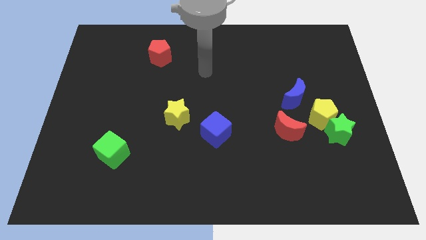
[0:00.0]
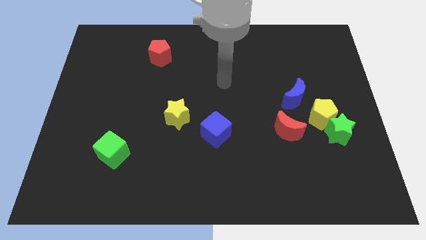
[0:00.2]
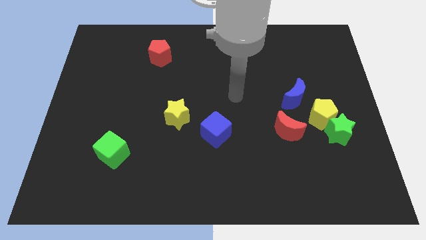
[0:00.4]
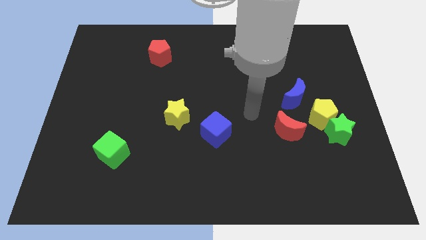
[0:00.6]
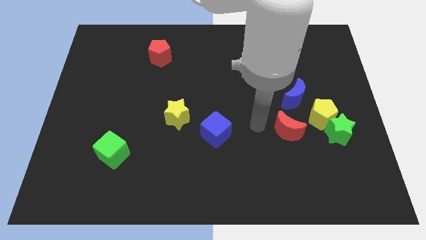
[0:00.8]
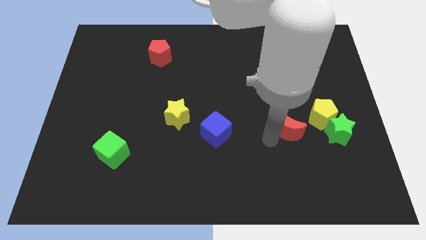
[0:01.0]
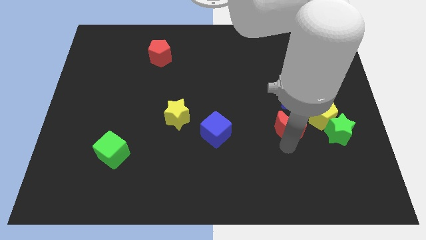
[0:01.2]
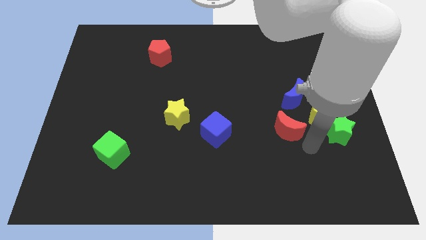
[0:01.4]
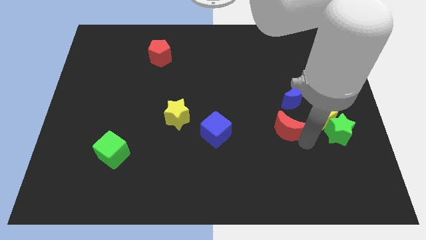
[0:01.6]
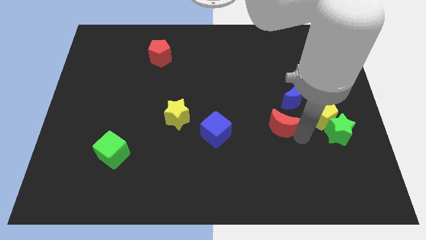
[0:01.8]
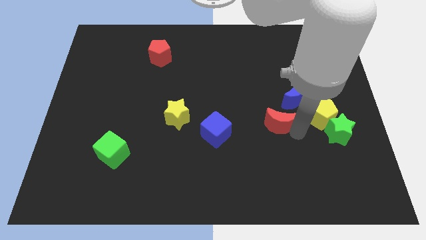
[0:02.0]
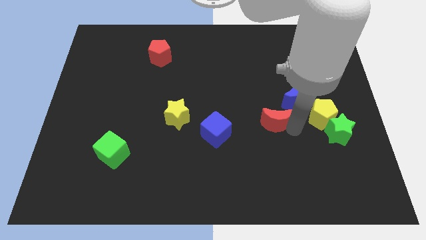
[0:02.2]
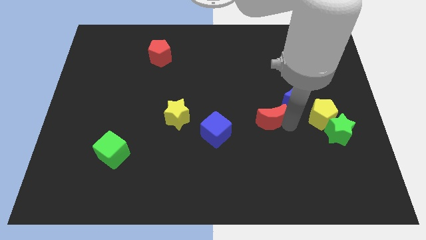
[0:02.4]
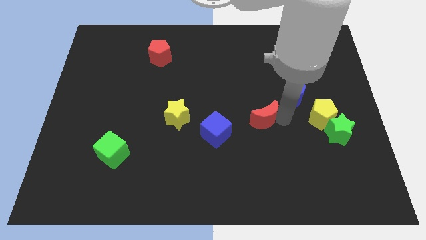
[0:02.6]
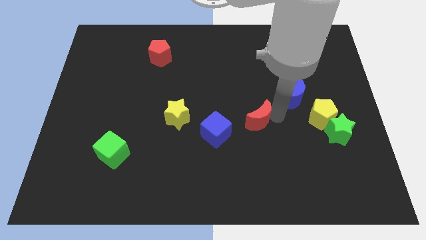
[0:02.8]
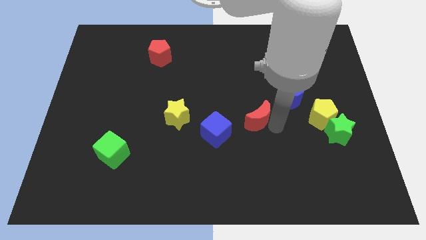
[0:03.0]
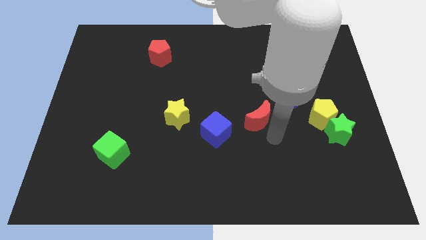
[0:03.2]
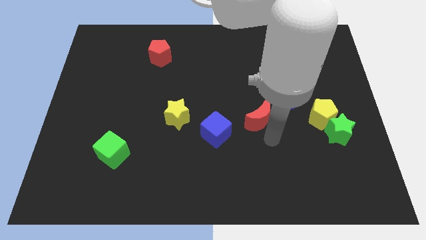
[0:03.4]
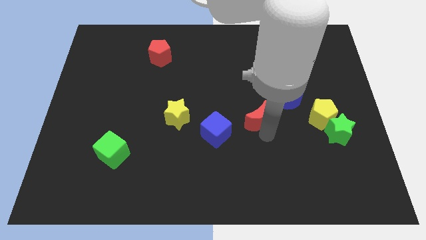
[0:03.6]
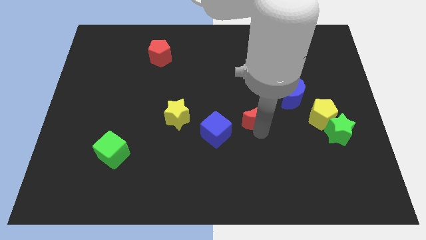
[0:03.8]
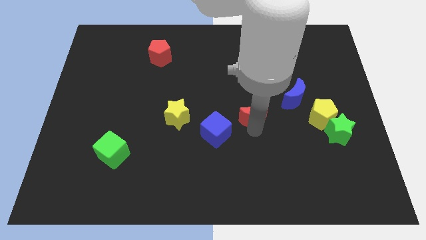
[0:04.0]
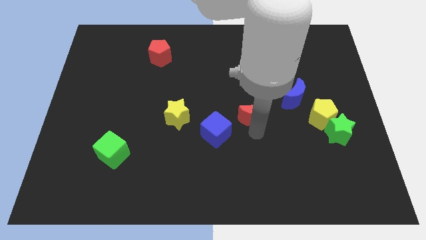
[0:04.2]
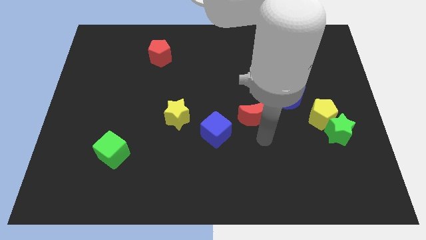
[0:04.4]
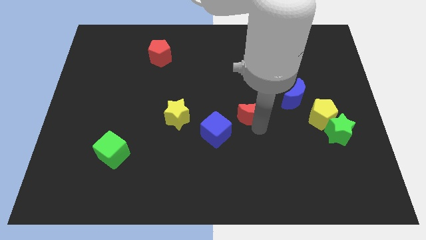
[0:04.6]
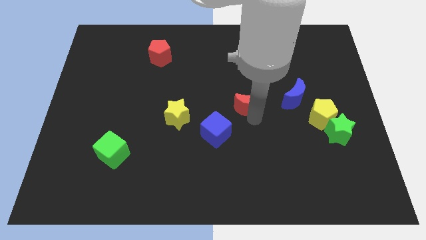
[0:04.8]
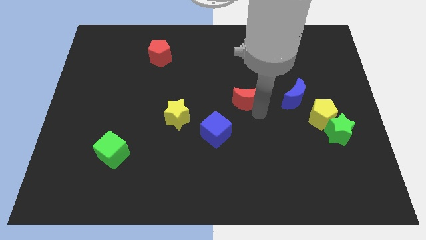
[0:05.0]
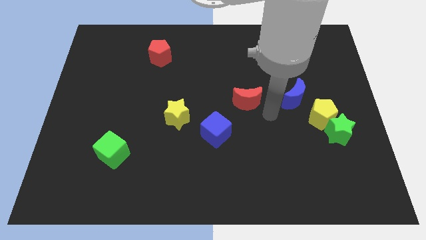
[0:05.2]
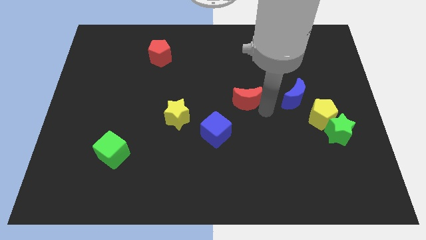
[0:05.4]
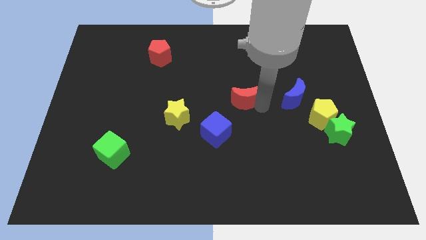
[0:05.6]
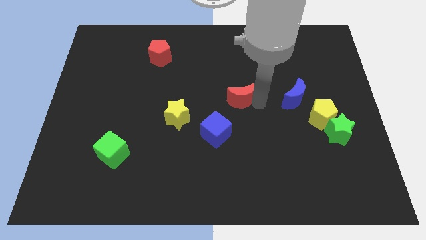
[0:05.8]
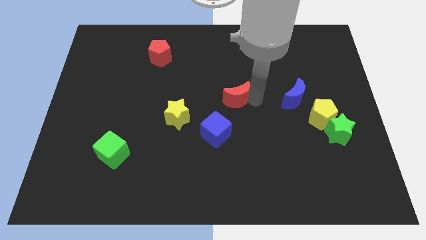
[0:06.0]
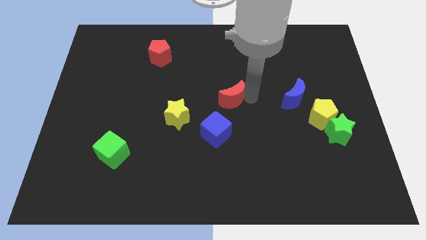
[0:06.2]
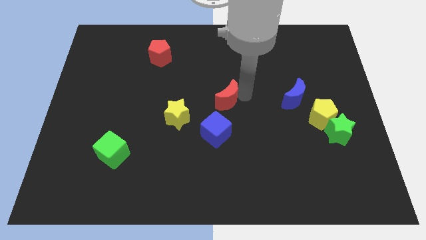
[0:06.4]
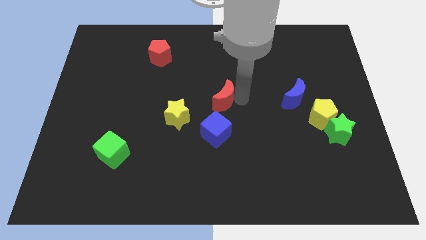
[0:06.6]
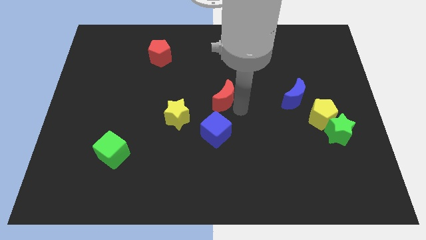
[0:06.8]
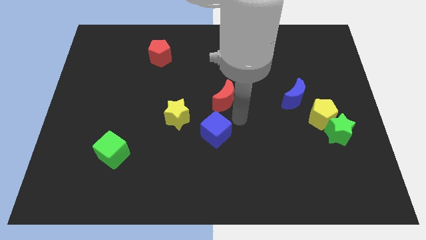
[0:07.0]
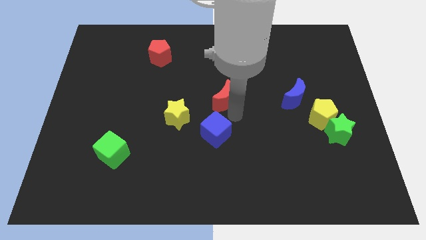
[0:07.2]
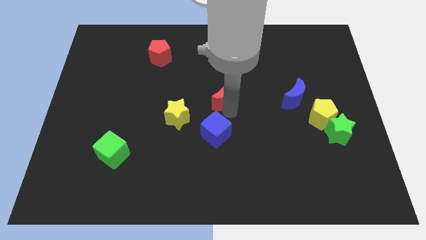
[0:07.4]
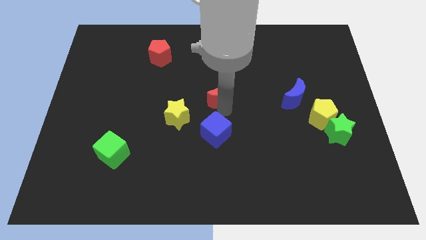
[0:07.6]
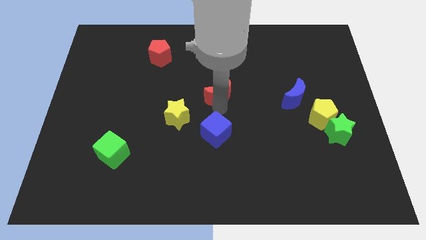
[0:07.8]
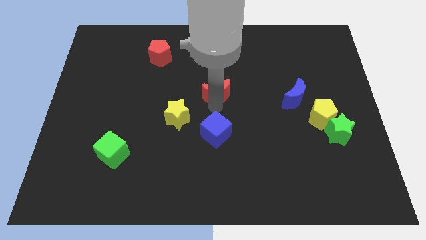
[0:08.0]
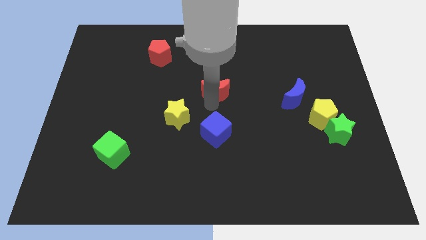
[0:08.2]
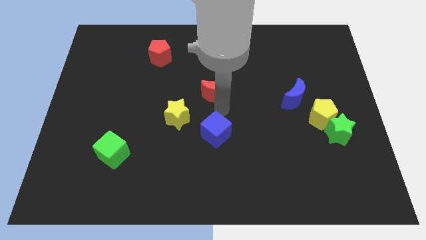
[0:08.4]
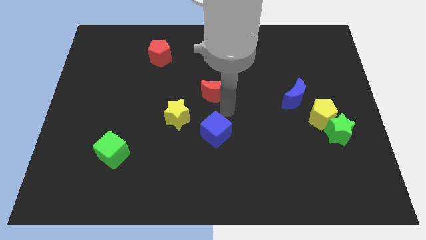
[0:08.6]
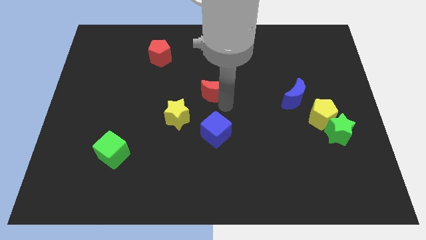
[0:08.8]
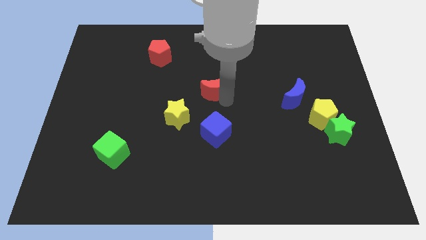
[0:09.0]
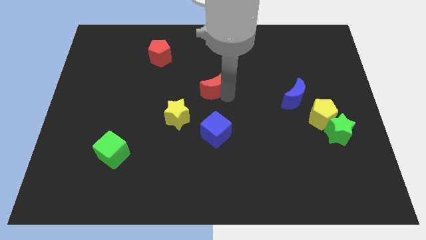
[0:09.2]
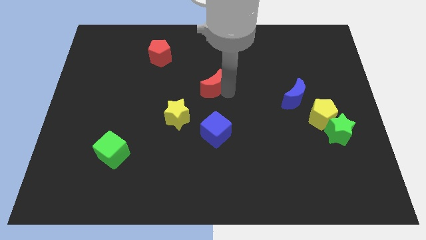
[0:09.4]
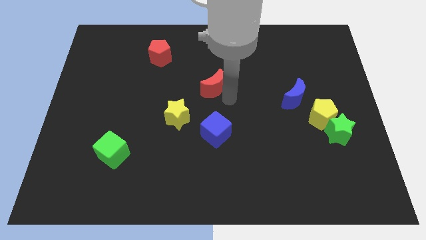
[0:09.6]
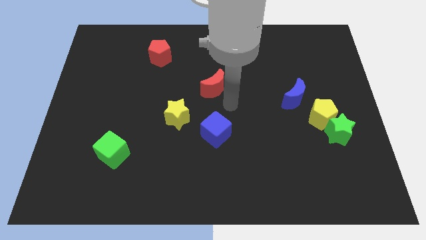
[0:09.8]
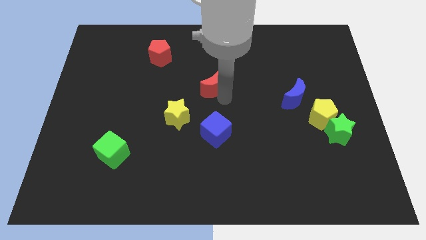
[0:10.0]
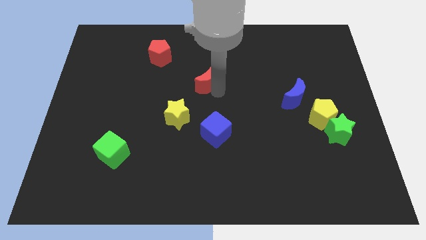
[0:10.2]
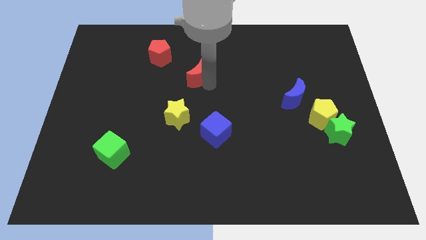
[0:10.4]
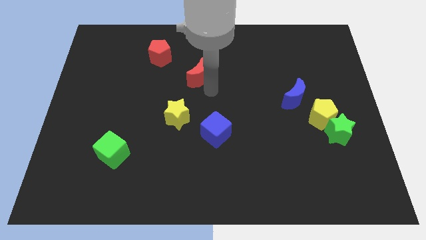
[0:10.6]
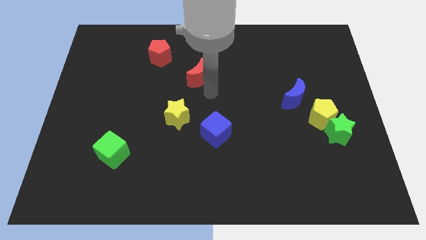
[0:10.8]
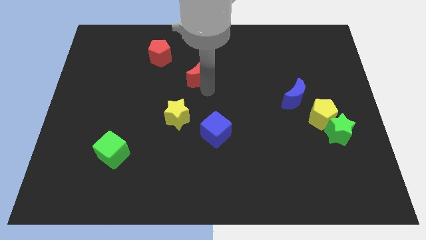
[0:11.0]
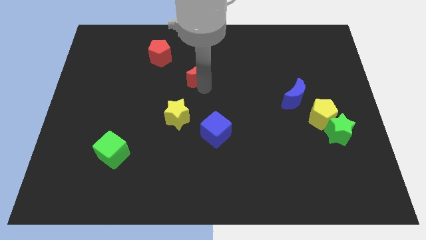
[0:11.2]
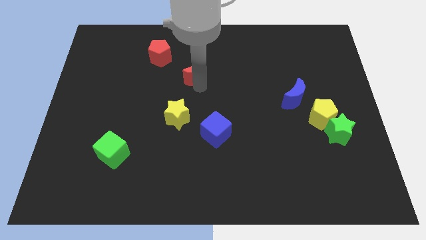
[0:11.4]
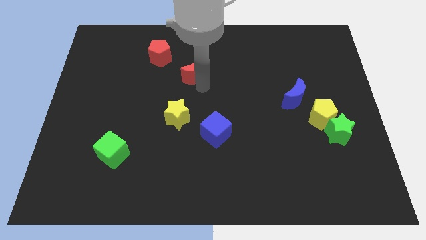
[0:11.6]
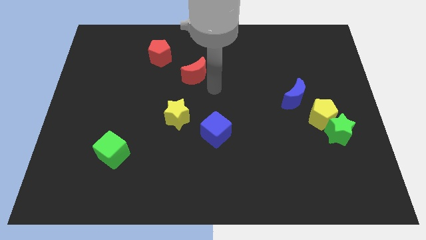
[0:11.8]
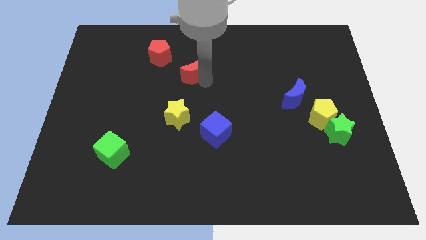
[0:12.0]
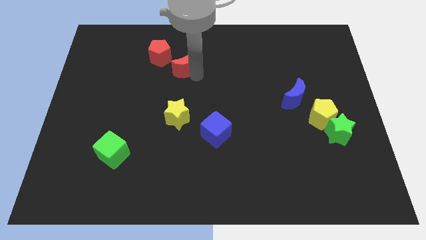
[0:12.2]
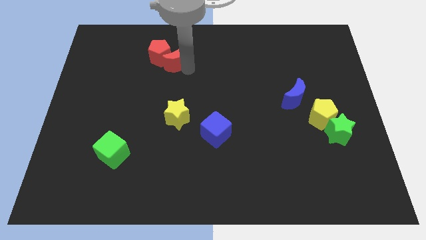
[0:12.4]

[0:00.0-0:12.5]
move the red moon to the red pentagon
